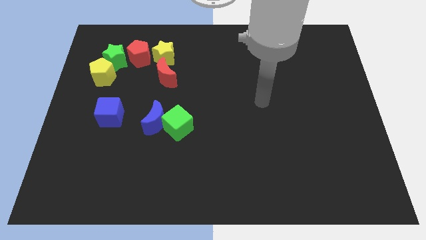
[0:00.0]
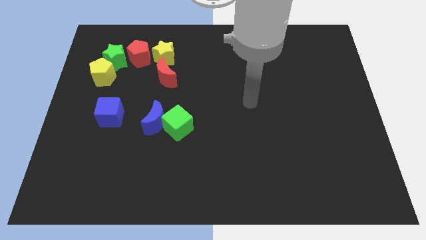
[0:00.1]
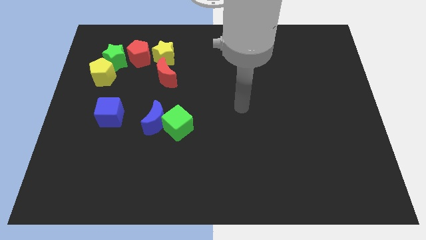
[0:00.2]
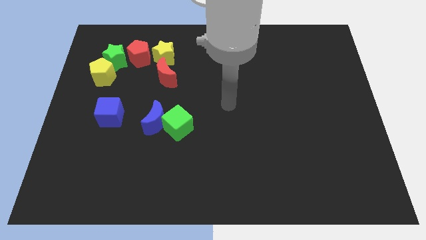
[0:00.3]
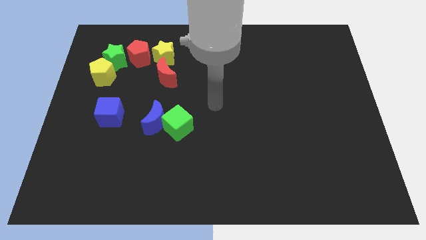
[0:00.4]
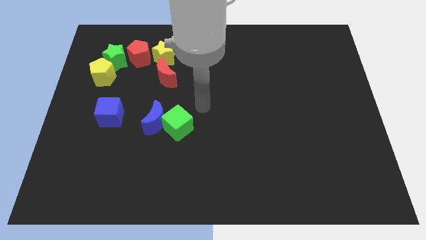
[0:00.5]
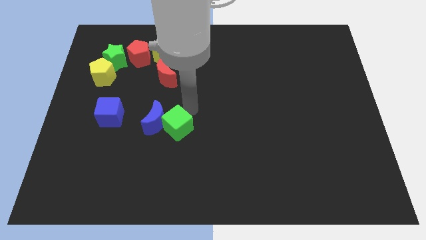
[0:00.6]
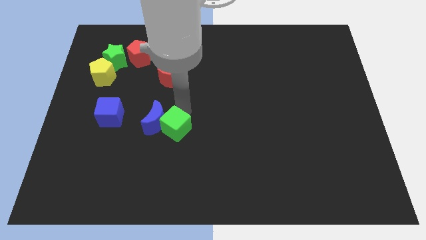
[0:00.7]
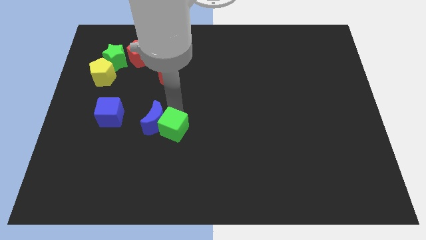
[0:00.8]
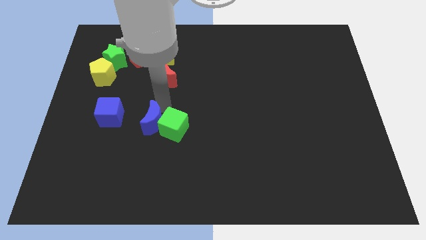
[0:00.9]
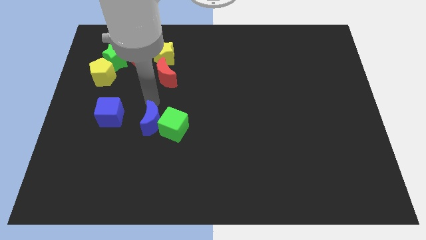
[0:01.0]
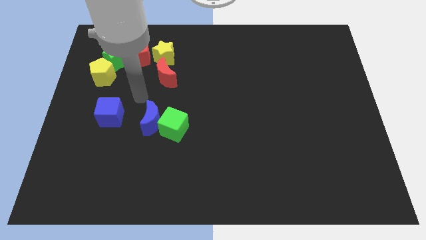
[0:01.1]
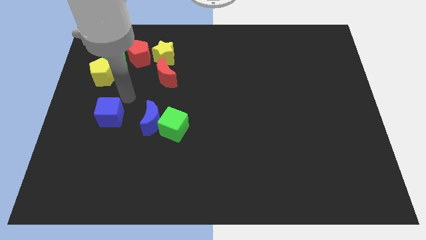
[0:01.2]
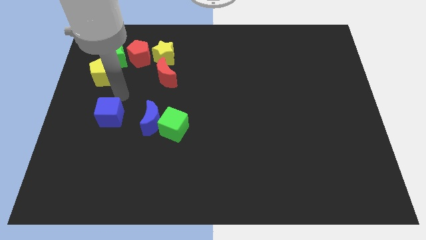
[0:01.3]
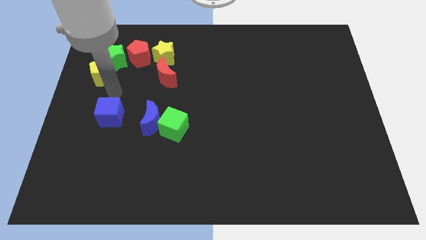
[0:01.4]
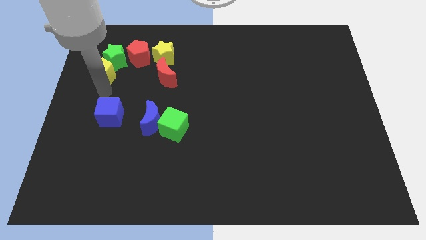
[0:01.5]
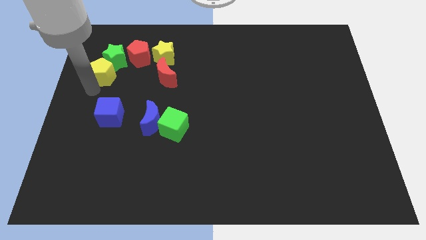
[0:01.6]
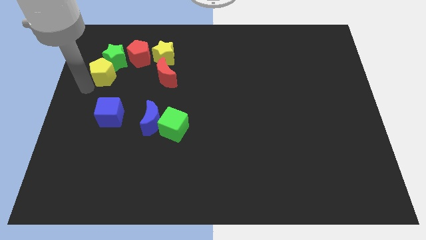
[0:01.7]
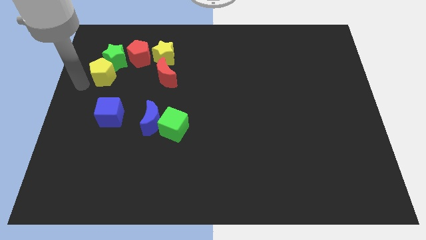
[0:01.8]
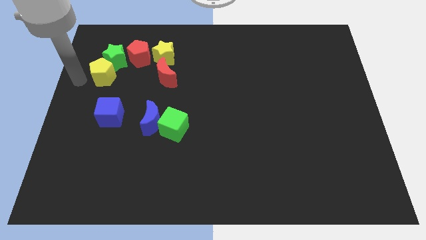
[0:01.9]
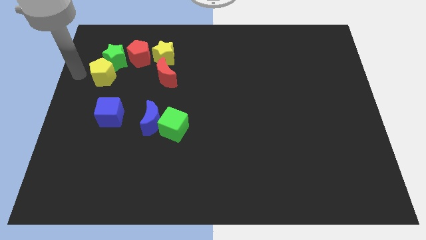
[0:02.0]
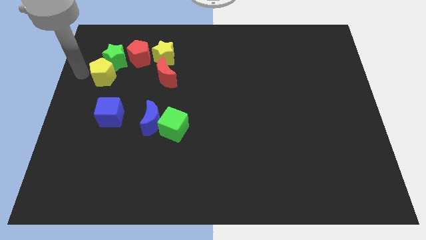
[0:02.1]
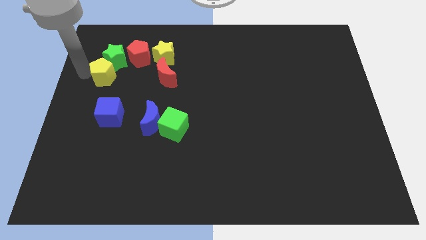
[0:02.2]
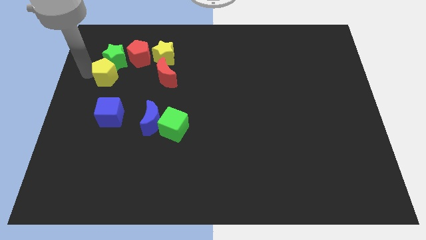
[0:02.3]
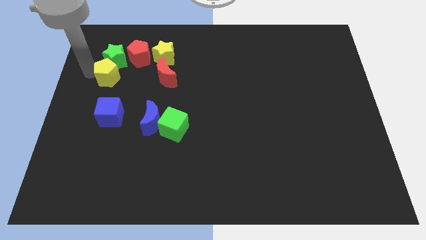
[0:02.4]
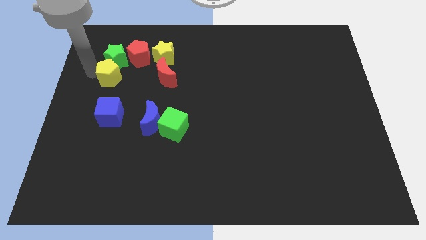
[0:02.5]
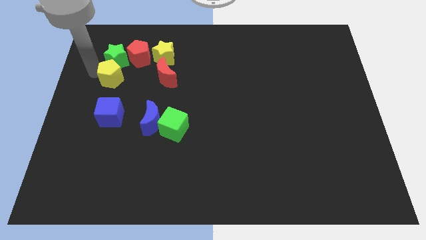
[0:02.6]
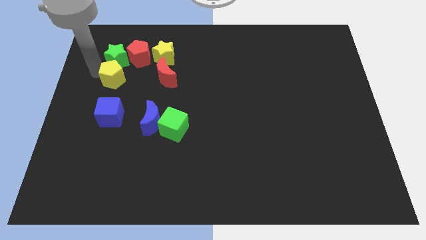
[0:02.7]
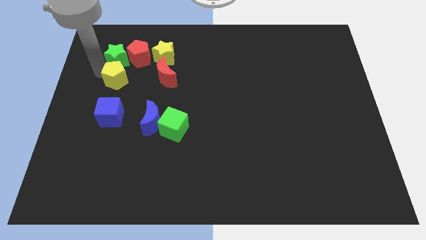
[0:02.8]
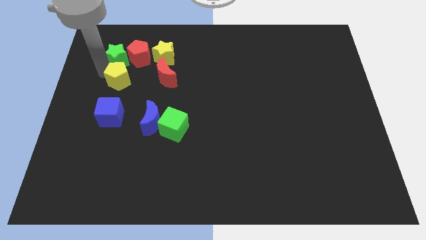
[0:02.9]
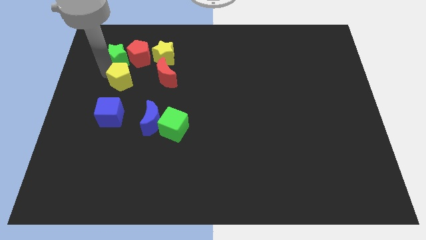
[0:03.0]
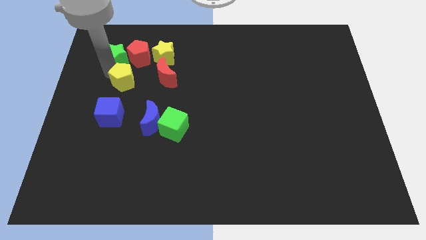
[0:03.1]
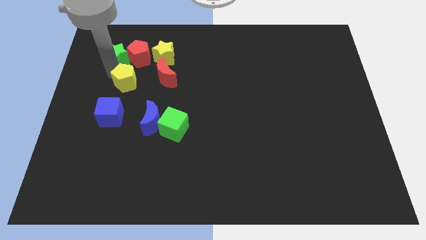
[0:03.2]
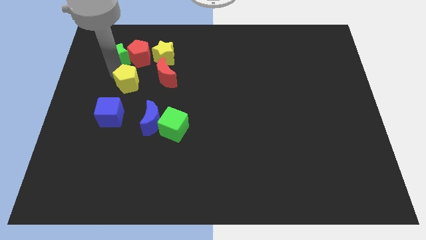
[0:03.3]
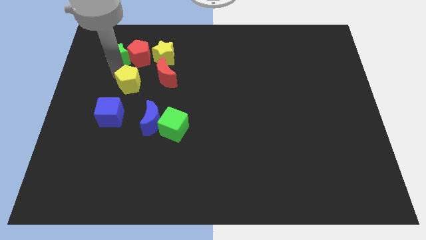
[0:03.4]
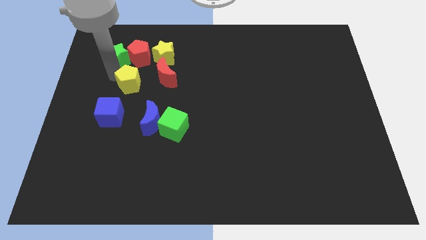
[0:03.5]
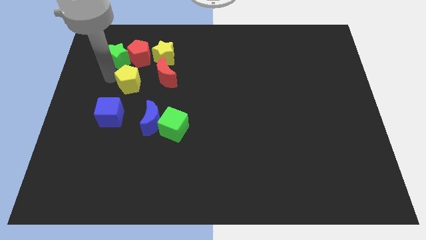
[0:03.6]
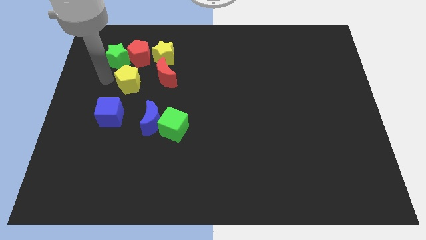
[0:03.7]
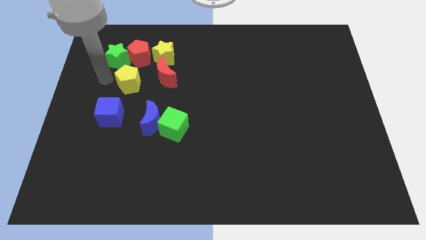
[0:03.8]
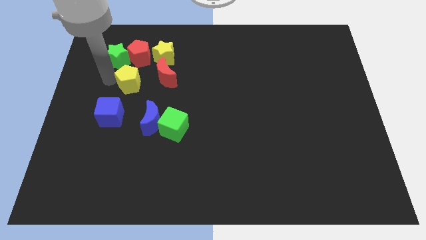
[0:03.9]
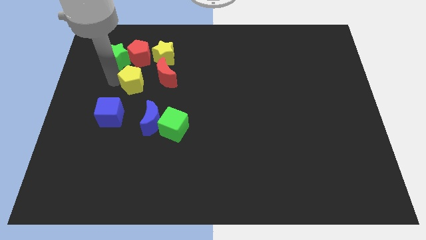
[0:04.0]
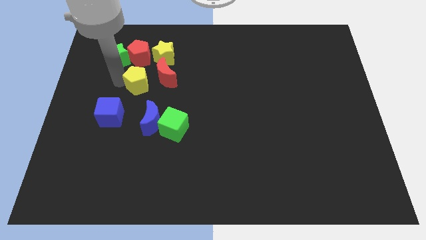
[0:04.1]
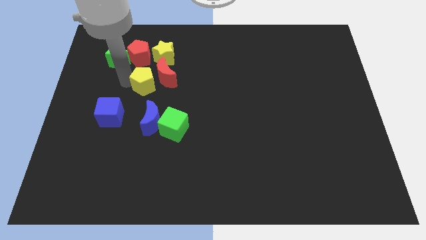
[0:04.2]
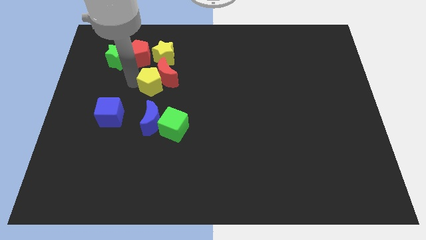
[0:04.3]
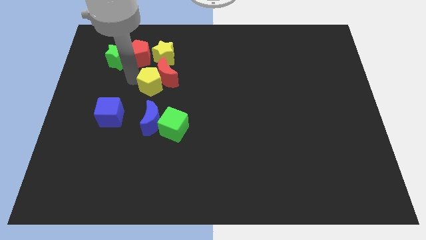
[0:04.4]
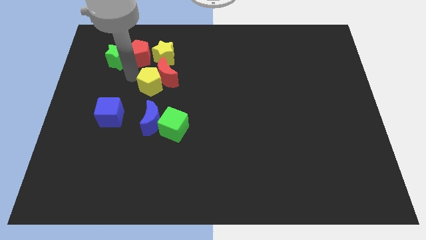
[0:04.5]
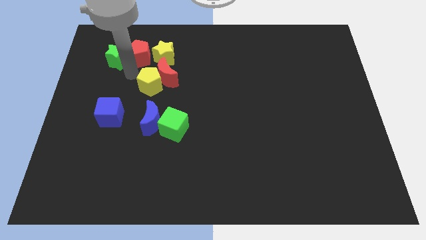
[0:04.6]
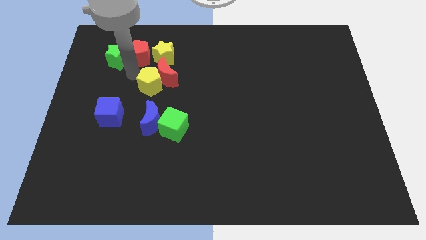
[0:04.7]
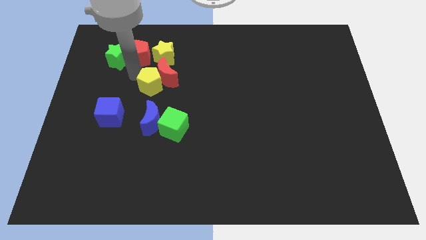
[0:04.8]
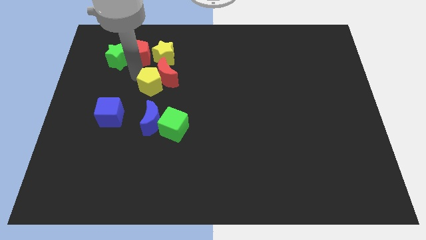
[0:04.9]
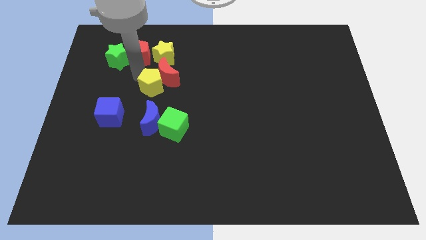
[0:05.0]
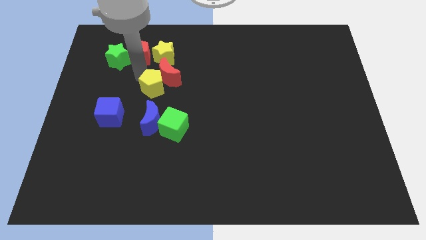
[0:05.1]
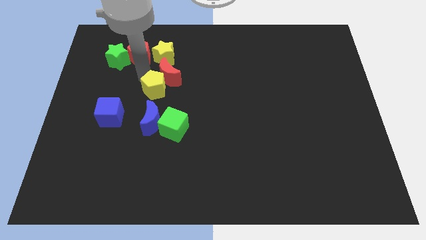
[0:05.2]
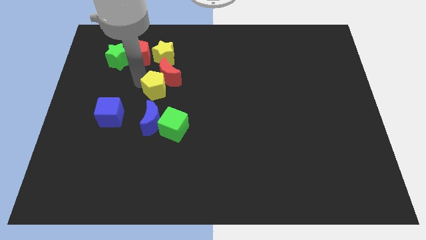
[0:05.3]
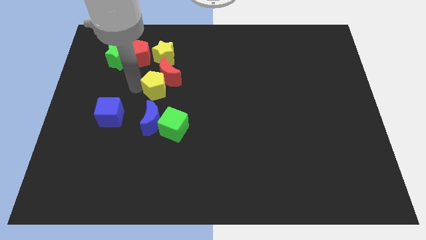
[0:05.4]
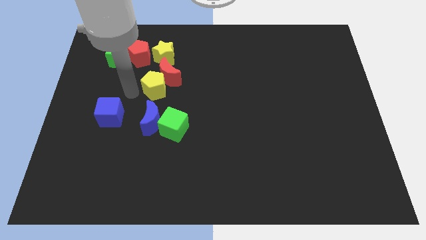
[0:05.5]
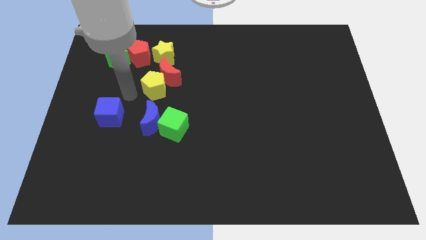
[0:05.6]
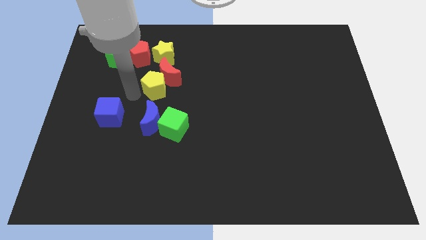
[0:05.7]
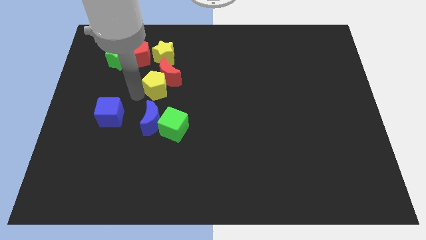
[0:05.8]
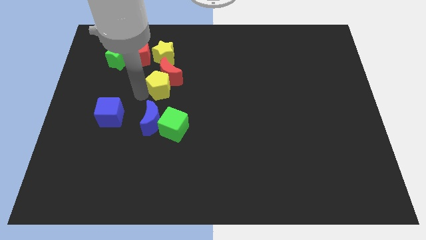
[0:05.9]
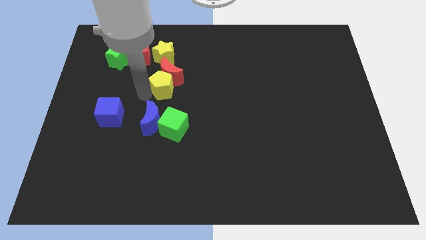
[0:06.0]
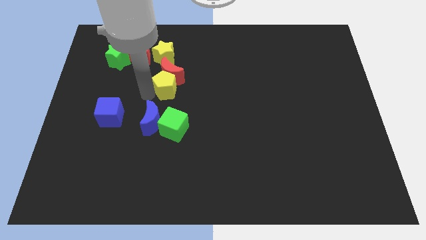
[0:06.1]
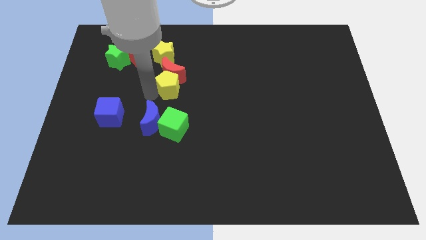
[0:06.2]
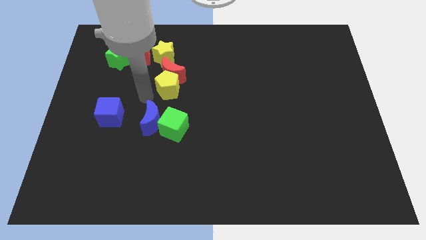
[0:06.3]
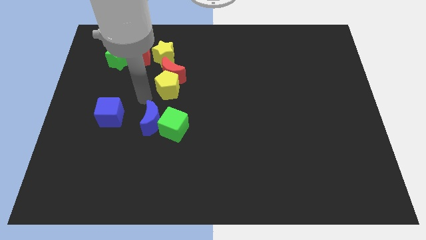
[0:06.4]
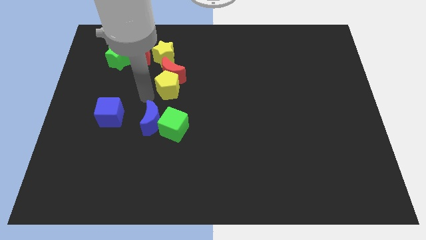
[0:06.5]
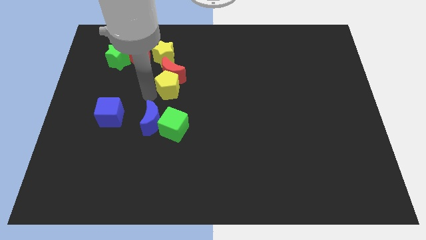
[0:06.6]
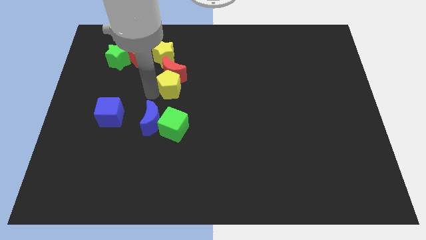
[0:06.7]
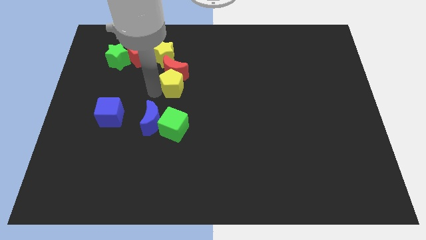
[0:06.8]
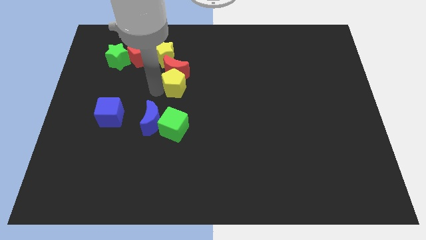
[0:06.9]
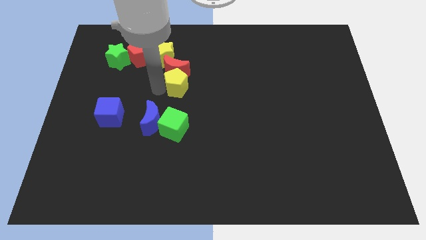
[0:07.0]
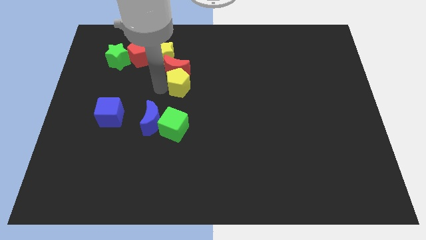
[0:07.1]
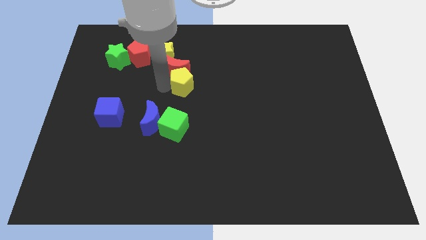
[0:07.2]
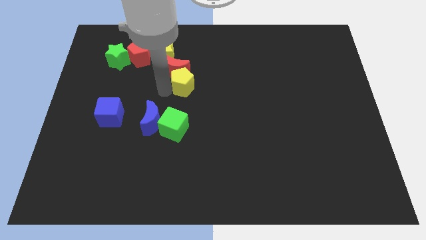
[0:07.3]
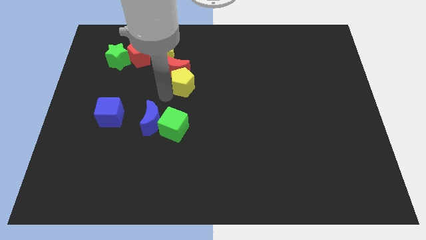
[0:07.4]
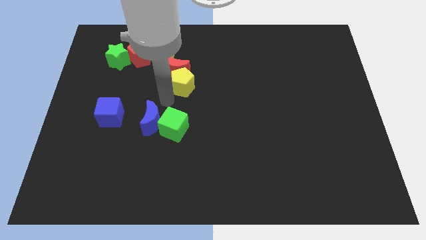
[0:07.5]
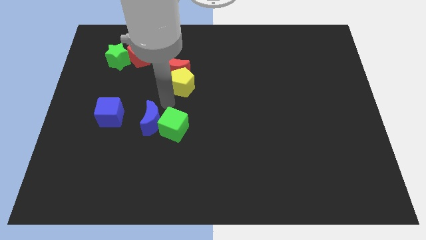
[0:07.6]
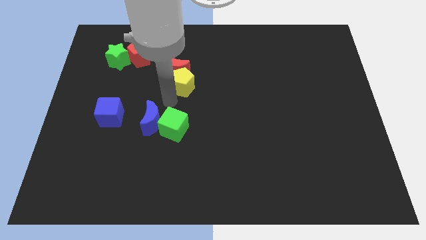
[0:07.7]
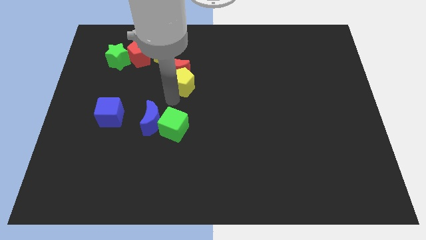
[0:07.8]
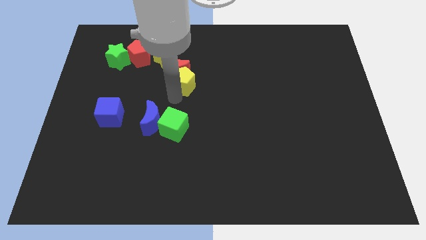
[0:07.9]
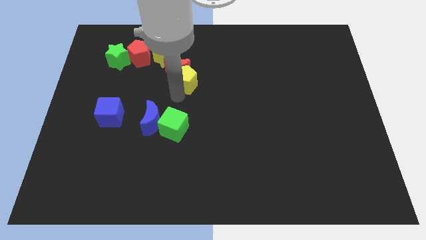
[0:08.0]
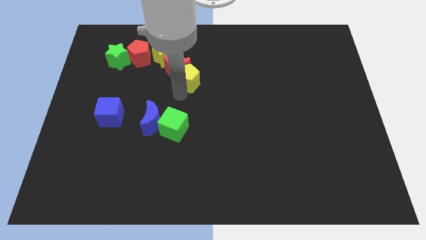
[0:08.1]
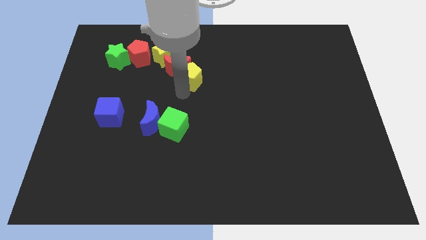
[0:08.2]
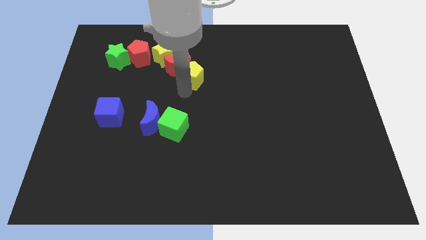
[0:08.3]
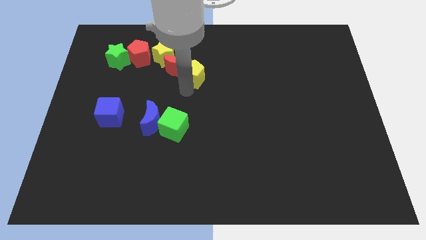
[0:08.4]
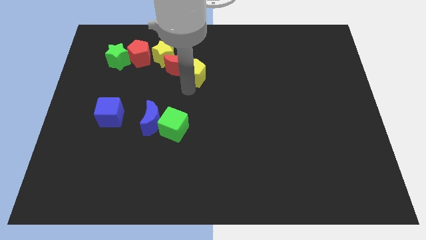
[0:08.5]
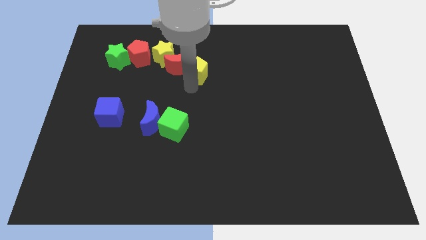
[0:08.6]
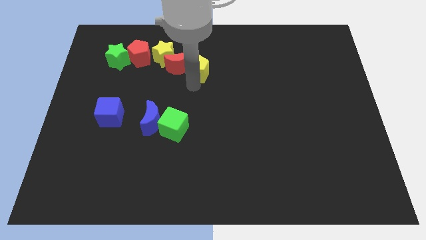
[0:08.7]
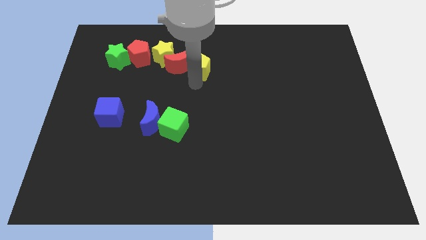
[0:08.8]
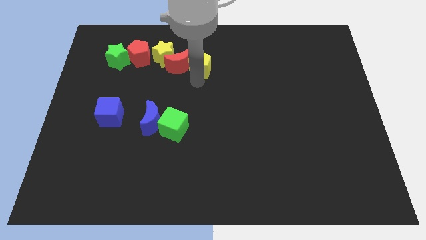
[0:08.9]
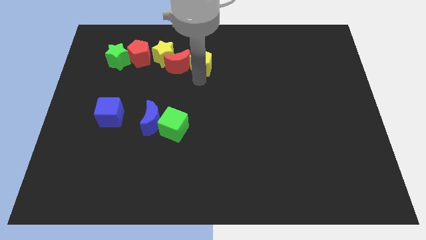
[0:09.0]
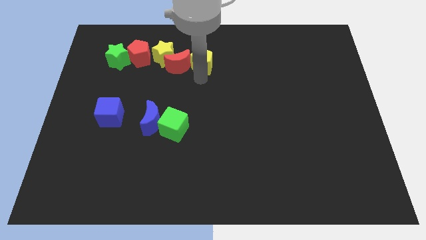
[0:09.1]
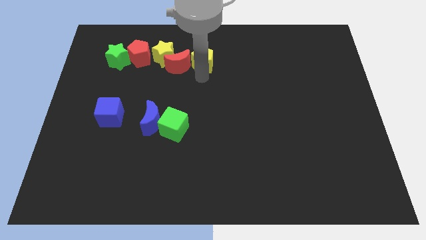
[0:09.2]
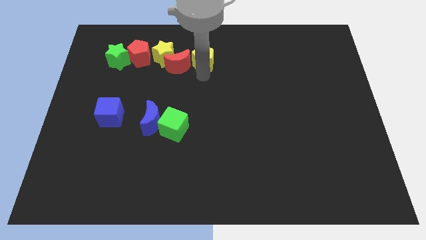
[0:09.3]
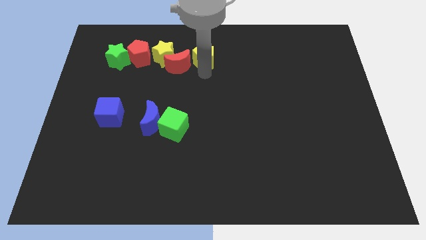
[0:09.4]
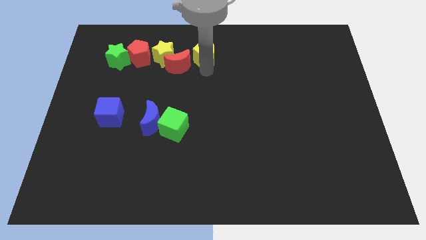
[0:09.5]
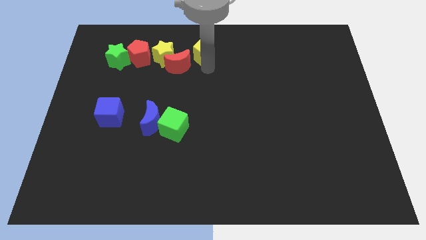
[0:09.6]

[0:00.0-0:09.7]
slide the yellow pentagon to the towards your base
